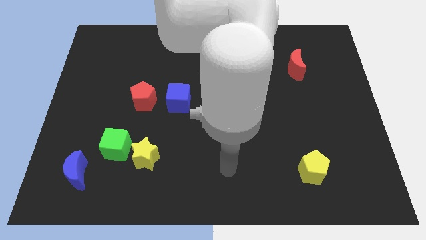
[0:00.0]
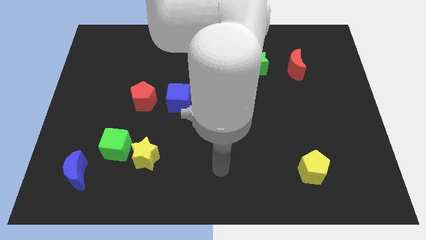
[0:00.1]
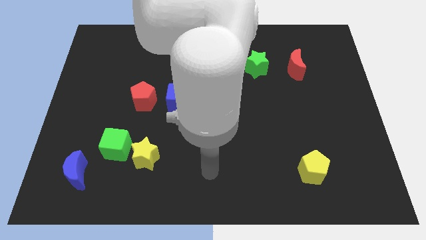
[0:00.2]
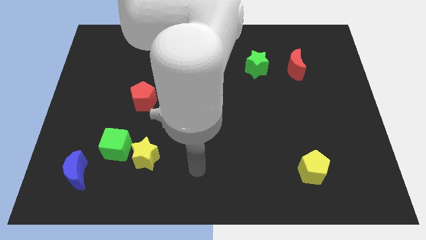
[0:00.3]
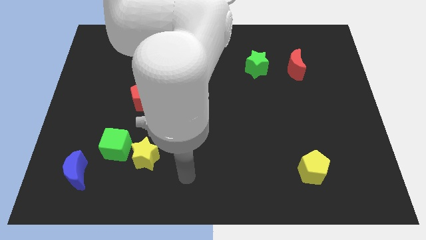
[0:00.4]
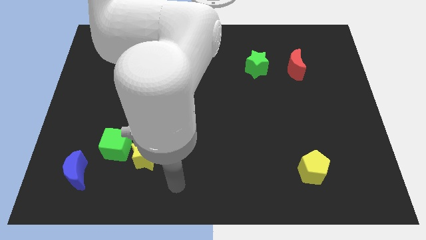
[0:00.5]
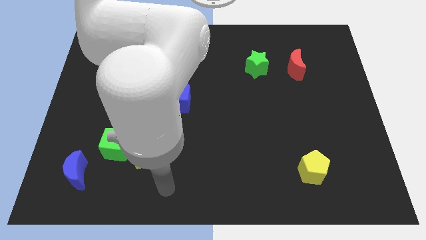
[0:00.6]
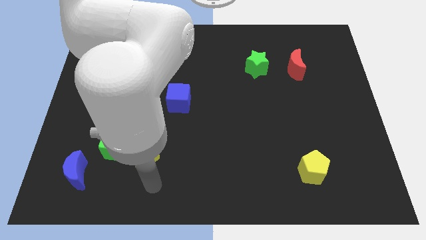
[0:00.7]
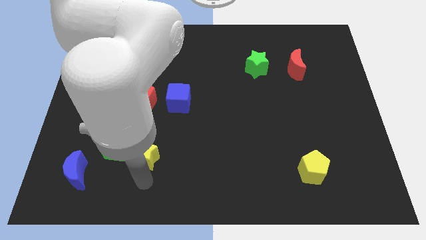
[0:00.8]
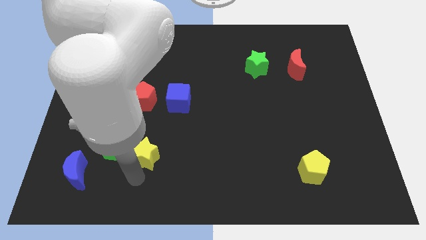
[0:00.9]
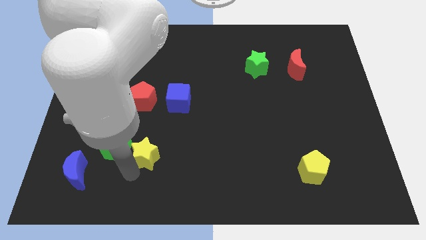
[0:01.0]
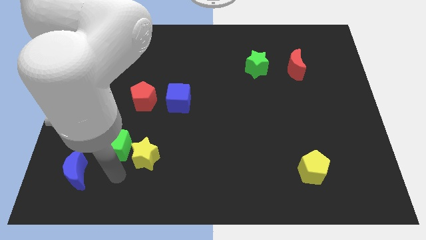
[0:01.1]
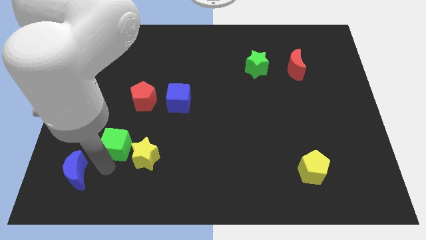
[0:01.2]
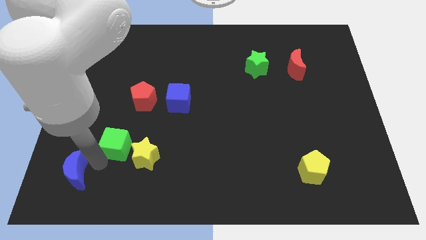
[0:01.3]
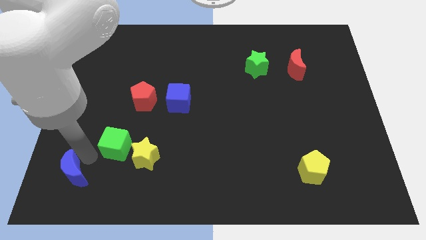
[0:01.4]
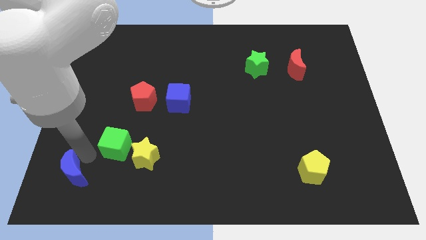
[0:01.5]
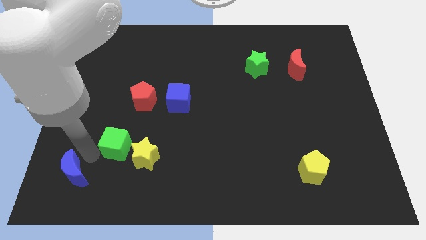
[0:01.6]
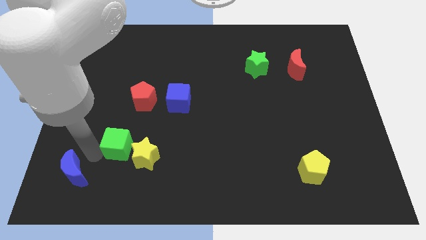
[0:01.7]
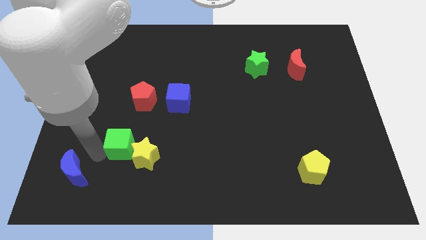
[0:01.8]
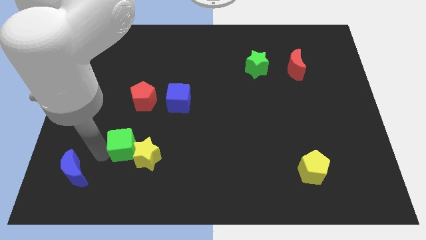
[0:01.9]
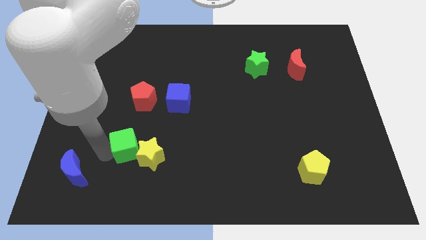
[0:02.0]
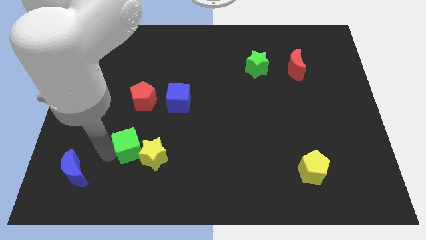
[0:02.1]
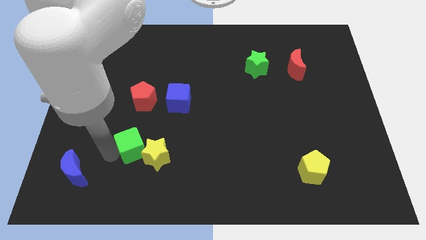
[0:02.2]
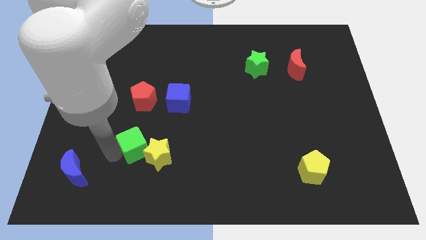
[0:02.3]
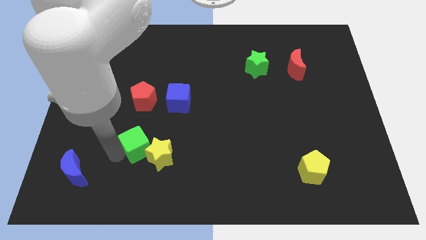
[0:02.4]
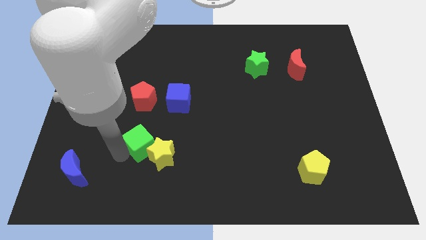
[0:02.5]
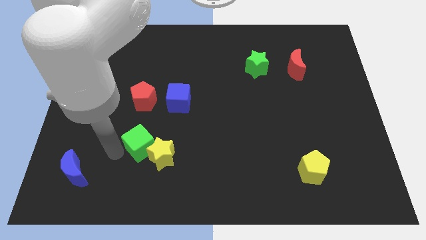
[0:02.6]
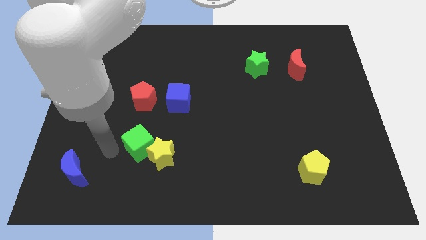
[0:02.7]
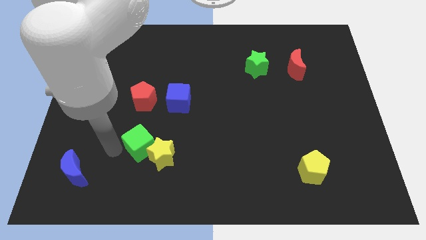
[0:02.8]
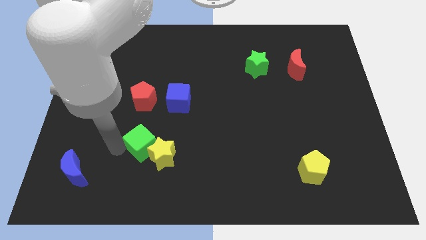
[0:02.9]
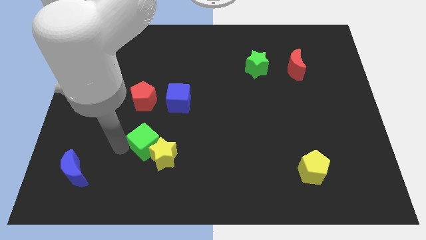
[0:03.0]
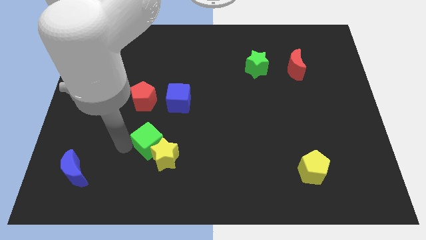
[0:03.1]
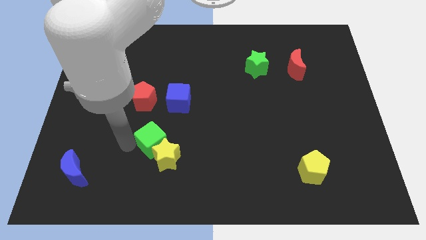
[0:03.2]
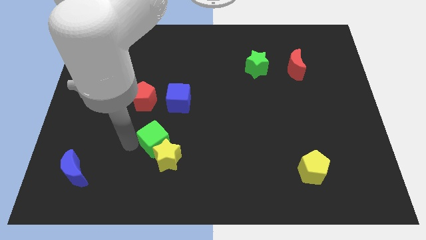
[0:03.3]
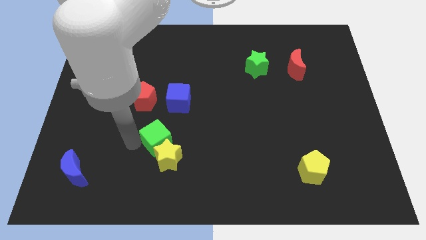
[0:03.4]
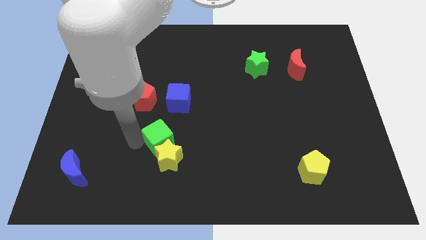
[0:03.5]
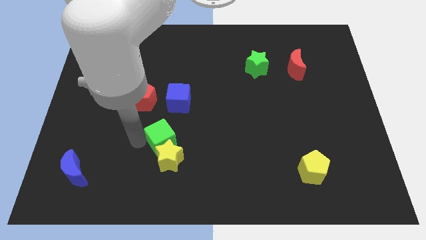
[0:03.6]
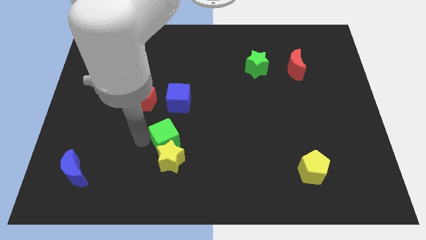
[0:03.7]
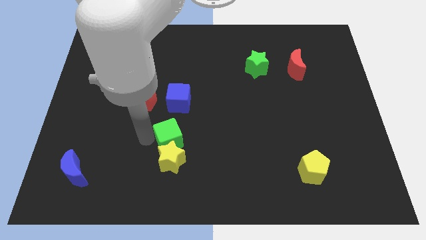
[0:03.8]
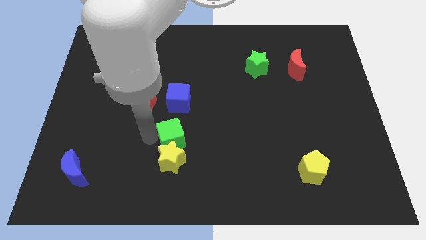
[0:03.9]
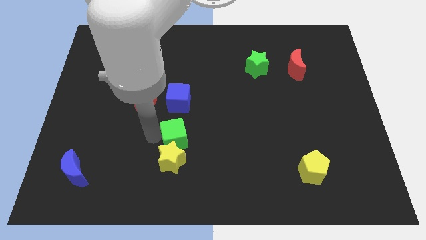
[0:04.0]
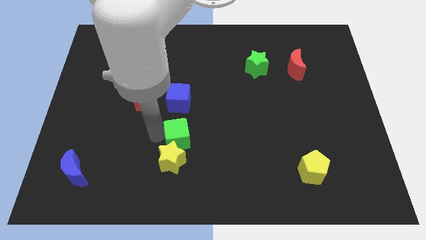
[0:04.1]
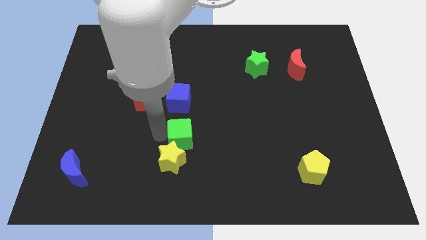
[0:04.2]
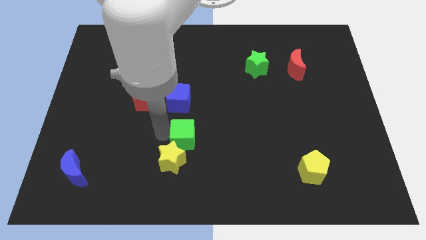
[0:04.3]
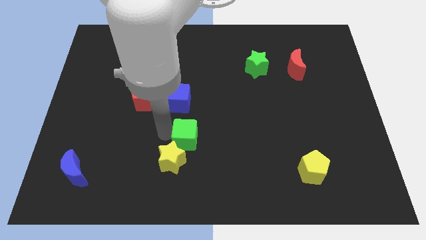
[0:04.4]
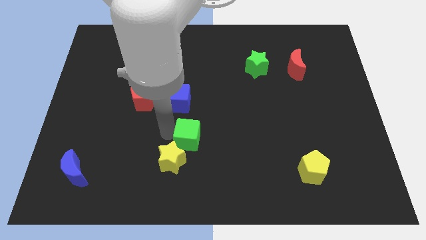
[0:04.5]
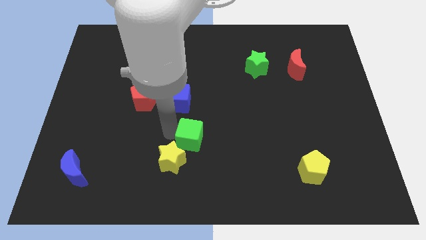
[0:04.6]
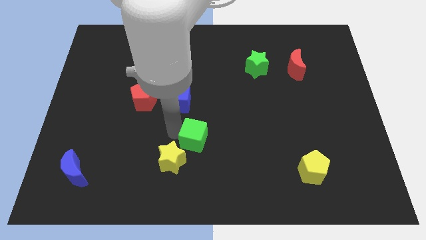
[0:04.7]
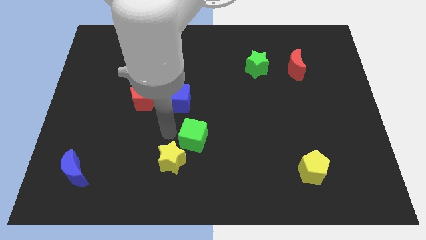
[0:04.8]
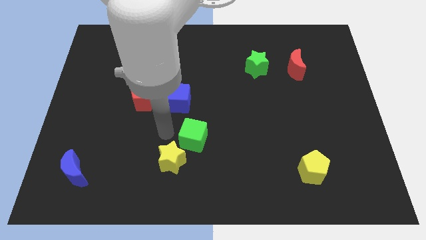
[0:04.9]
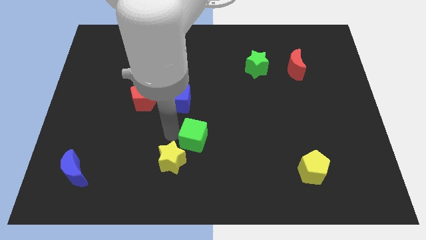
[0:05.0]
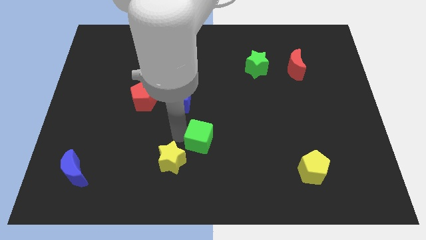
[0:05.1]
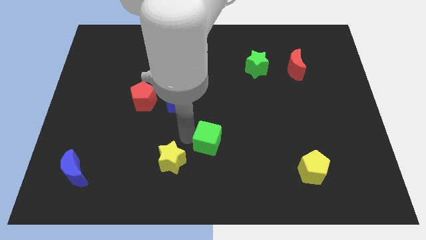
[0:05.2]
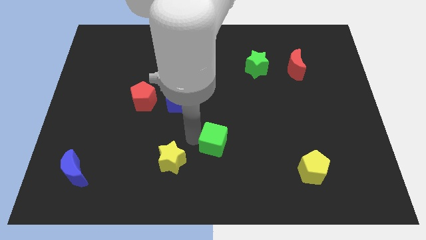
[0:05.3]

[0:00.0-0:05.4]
move the green cube to the right
